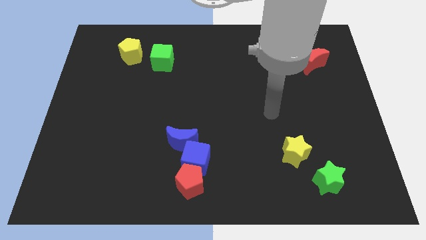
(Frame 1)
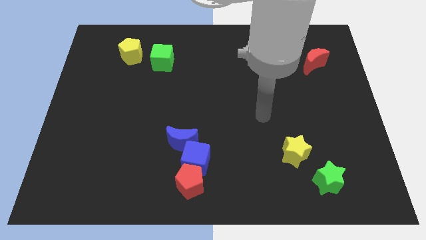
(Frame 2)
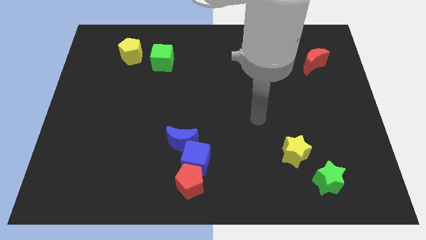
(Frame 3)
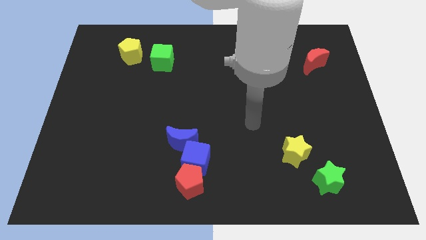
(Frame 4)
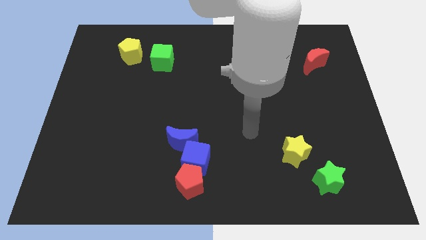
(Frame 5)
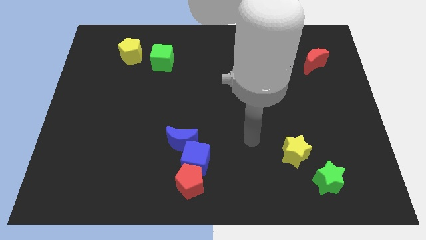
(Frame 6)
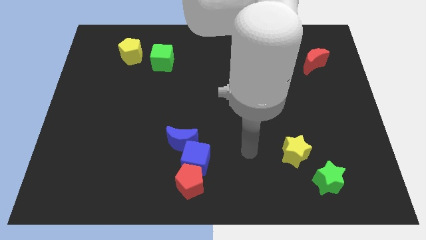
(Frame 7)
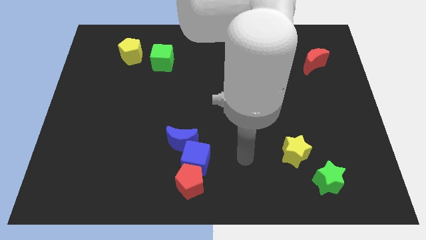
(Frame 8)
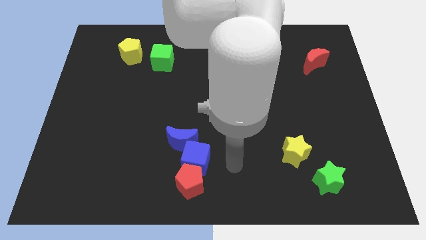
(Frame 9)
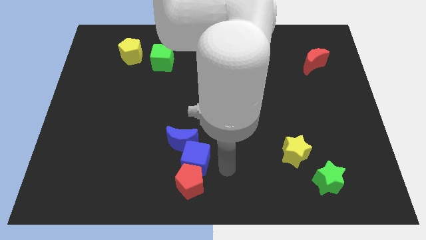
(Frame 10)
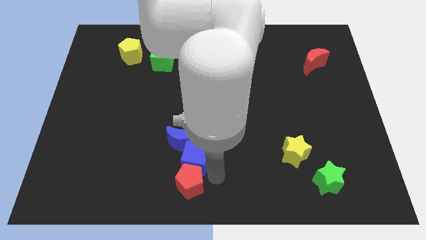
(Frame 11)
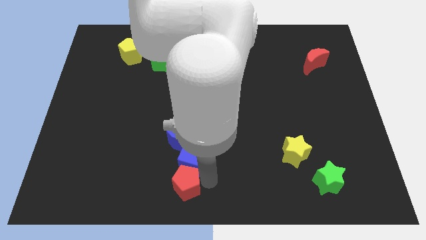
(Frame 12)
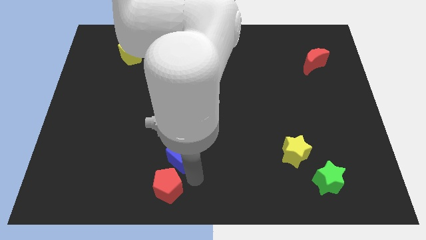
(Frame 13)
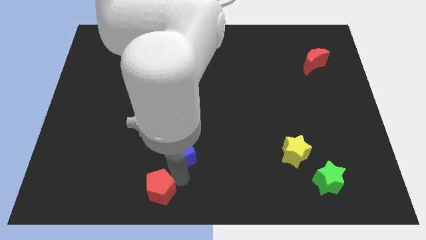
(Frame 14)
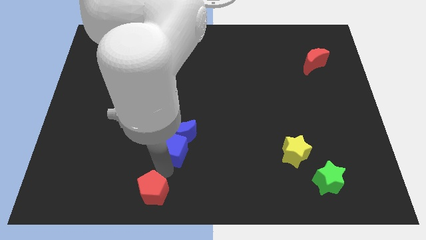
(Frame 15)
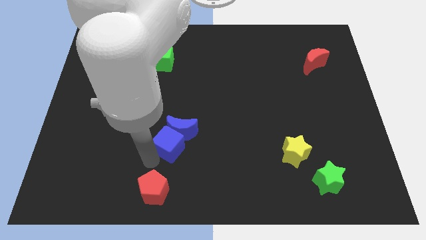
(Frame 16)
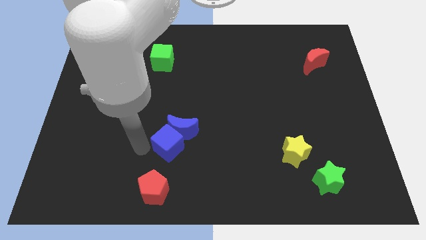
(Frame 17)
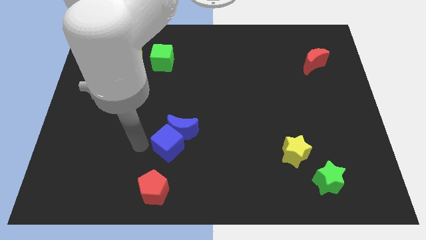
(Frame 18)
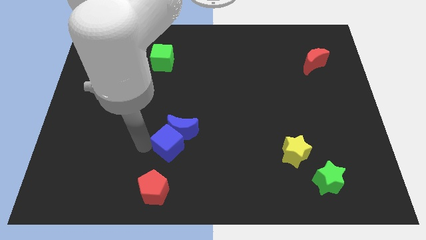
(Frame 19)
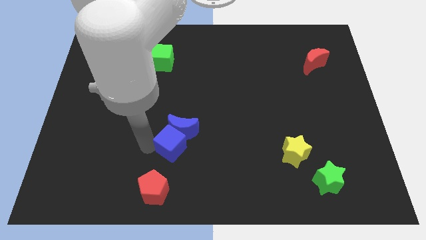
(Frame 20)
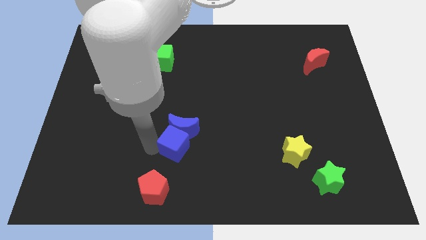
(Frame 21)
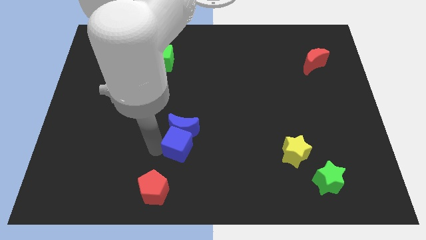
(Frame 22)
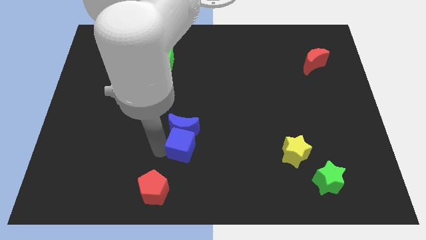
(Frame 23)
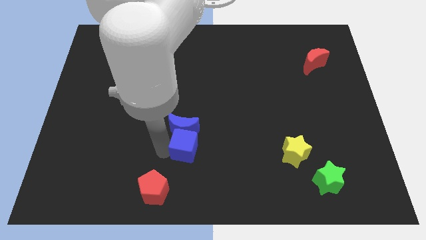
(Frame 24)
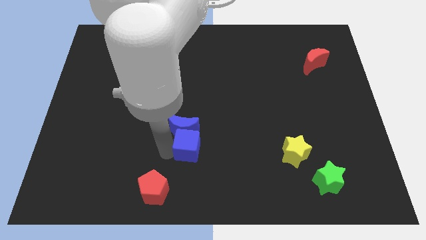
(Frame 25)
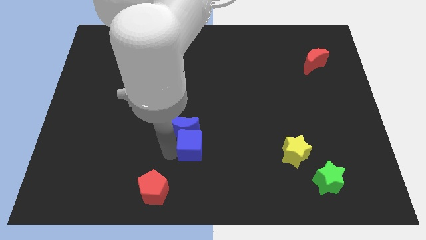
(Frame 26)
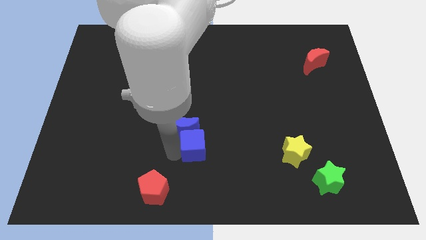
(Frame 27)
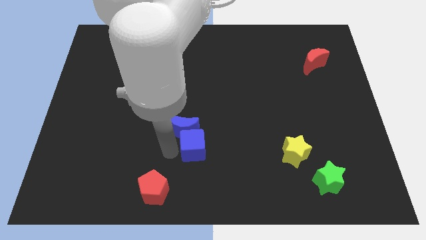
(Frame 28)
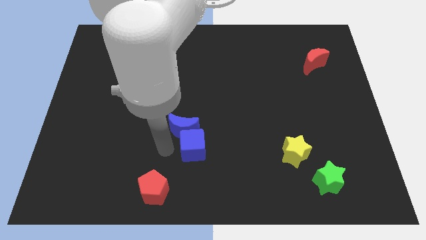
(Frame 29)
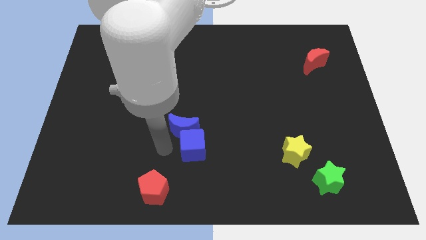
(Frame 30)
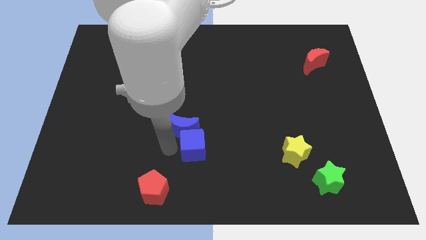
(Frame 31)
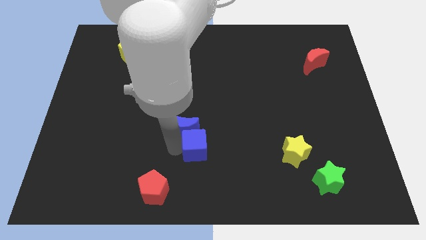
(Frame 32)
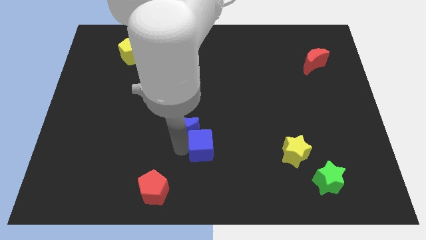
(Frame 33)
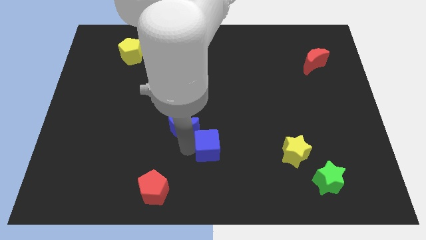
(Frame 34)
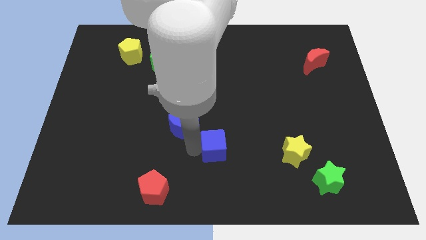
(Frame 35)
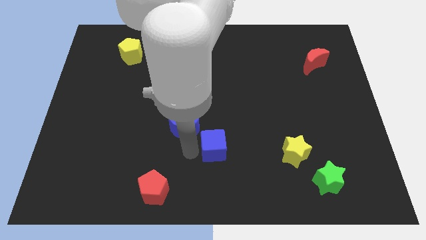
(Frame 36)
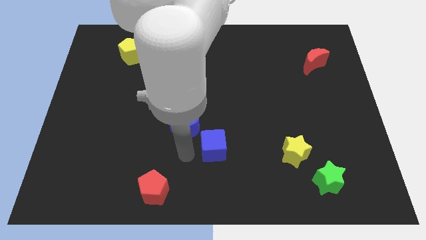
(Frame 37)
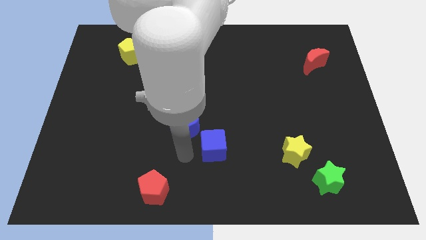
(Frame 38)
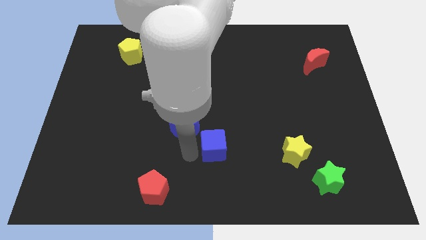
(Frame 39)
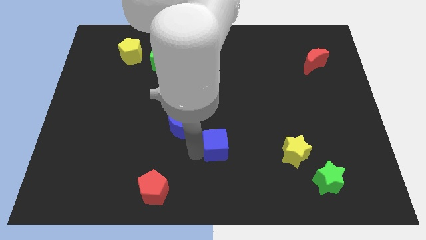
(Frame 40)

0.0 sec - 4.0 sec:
separate the blue cube from the red pentagon and blue moon

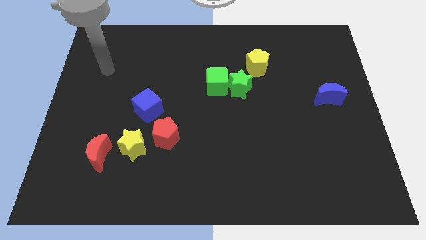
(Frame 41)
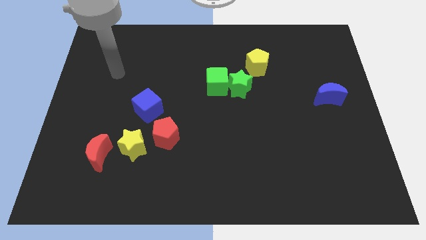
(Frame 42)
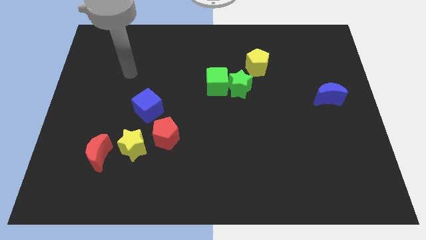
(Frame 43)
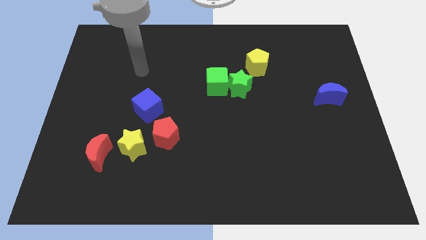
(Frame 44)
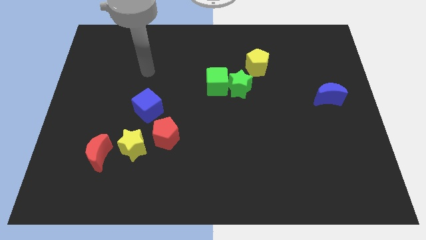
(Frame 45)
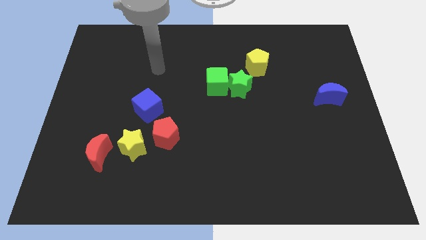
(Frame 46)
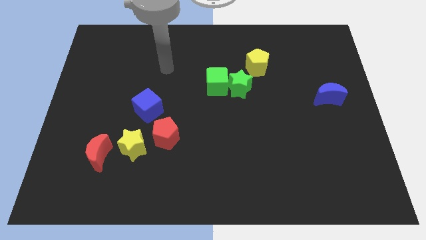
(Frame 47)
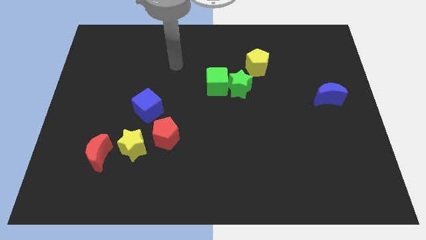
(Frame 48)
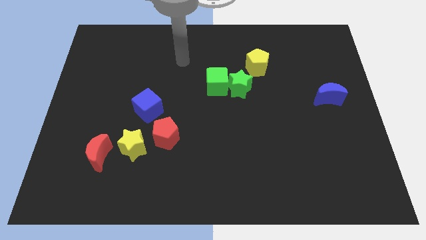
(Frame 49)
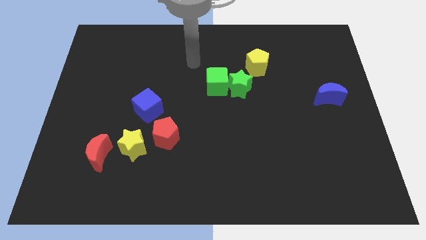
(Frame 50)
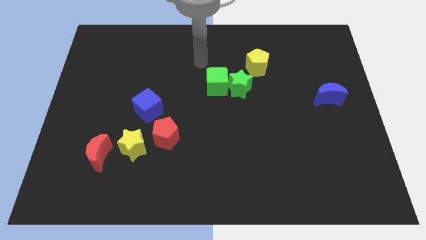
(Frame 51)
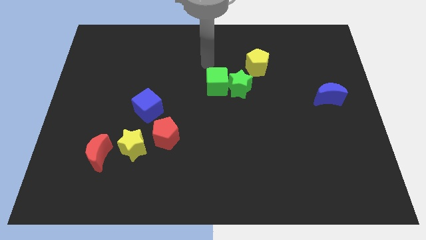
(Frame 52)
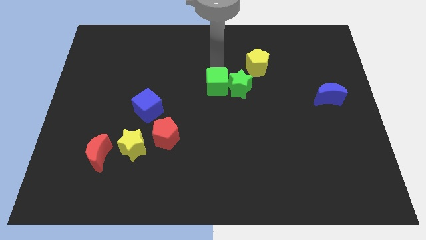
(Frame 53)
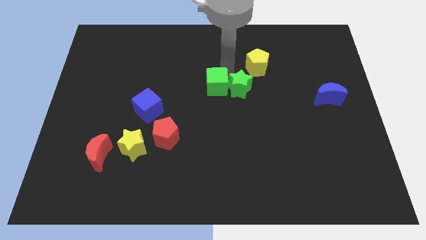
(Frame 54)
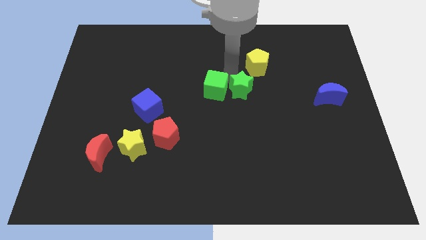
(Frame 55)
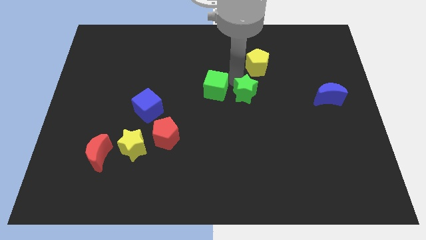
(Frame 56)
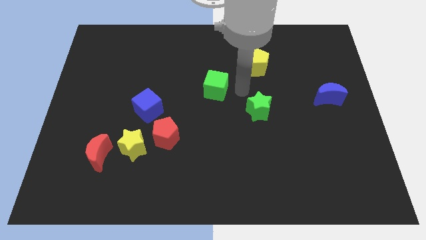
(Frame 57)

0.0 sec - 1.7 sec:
pull the green cube apart from the green star

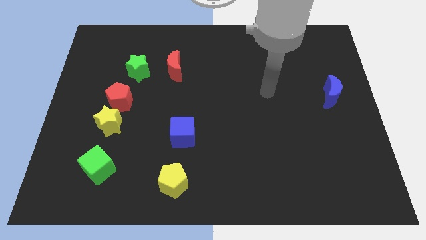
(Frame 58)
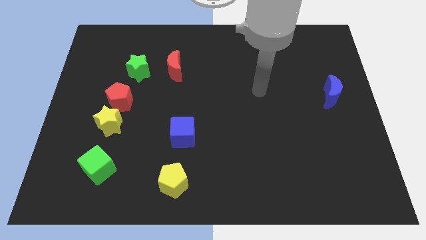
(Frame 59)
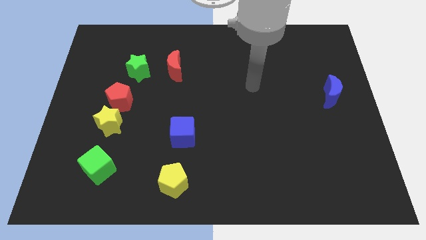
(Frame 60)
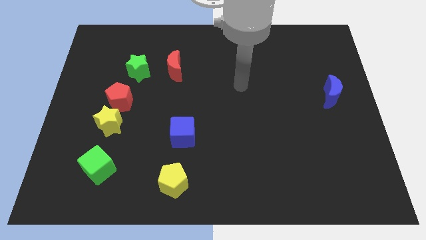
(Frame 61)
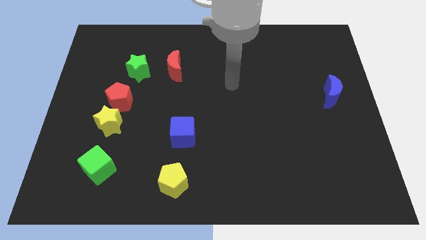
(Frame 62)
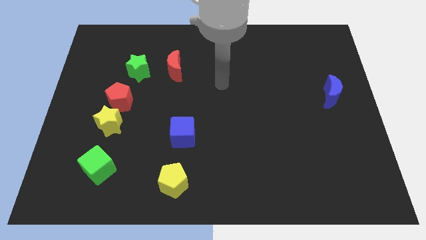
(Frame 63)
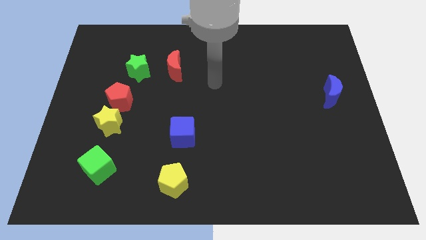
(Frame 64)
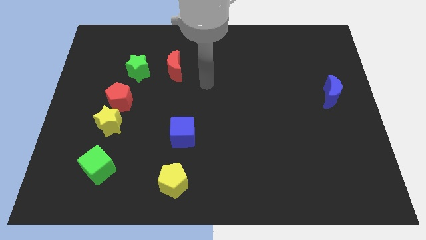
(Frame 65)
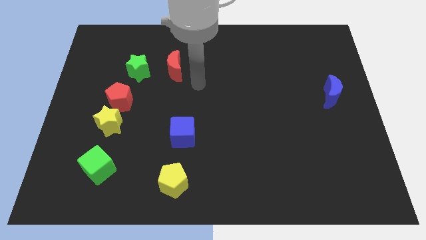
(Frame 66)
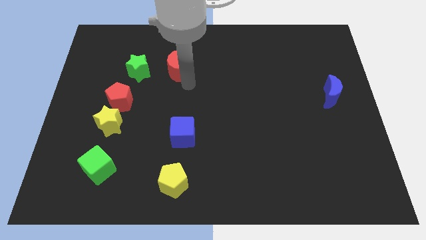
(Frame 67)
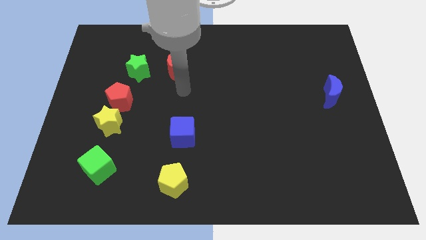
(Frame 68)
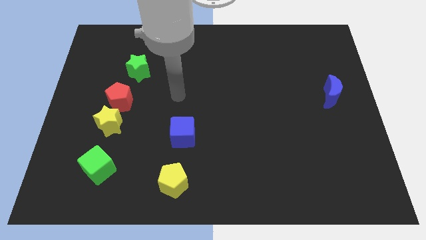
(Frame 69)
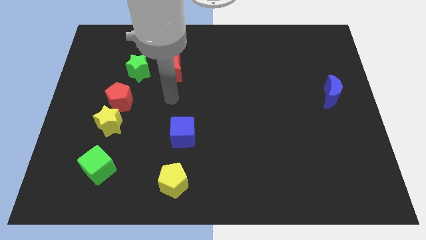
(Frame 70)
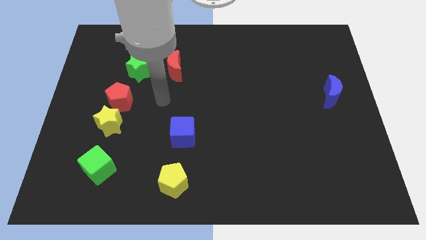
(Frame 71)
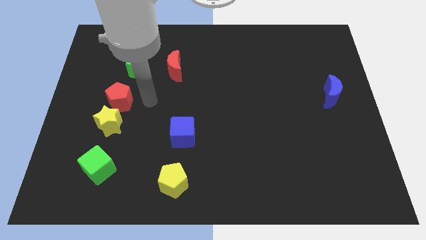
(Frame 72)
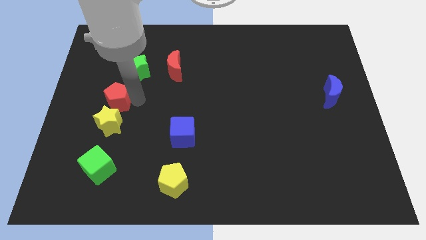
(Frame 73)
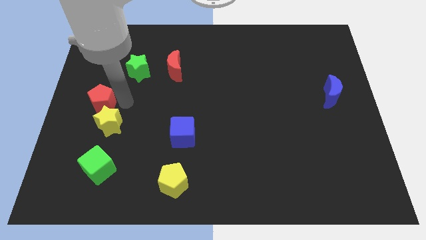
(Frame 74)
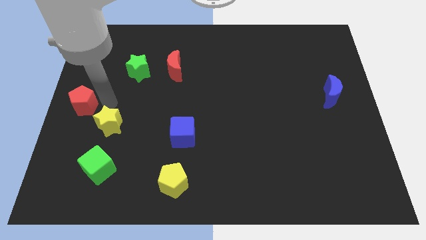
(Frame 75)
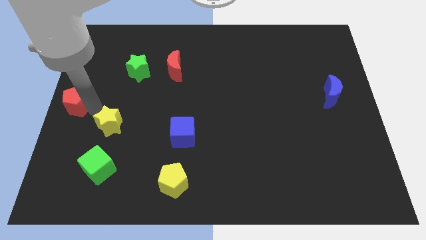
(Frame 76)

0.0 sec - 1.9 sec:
pull the yellow star apart from the red pentagon

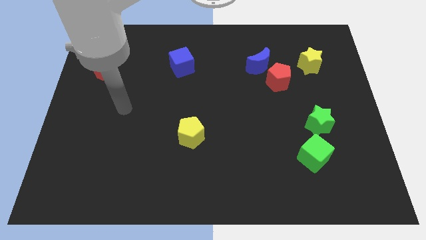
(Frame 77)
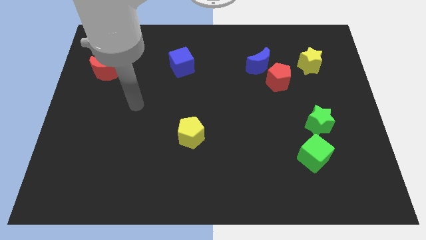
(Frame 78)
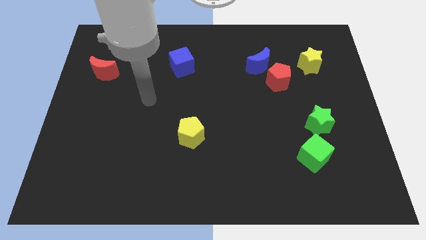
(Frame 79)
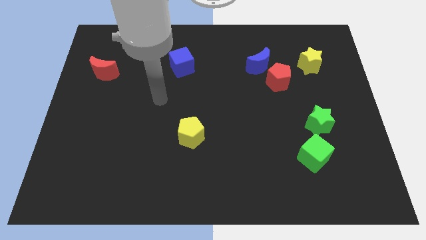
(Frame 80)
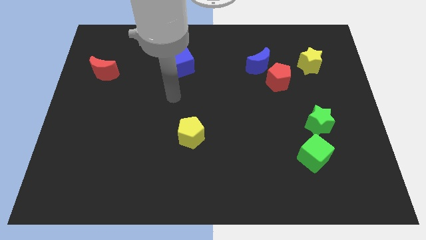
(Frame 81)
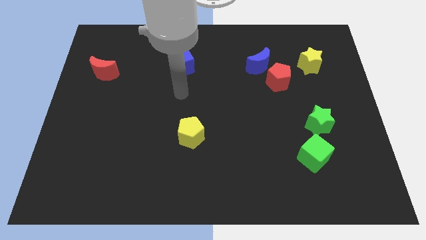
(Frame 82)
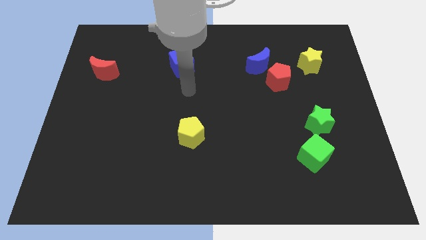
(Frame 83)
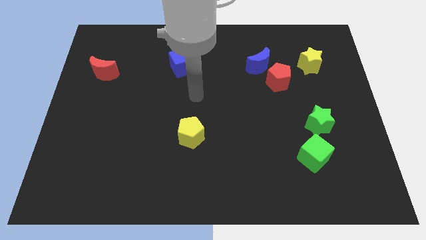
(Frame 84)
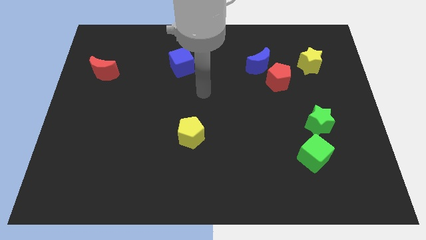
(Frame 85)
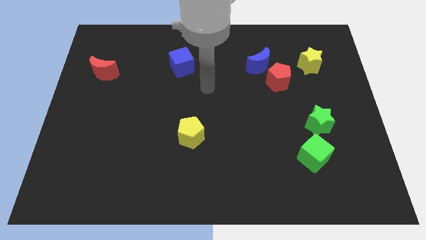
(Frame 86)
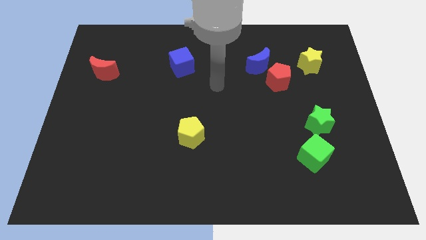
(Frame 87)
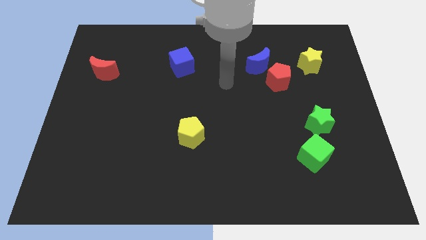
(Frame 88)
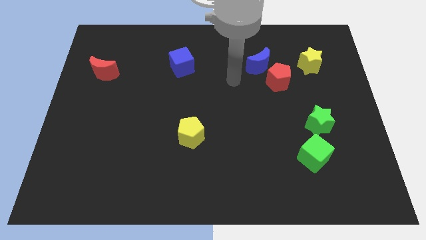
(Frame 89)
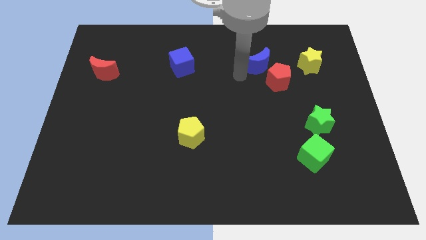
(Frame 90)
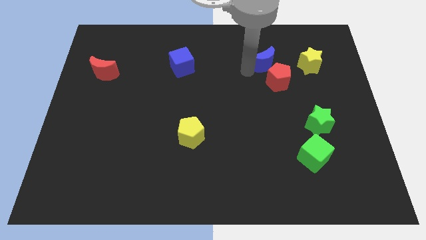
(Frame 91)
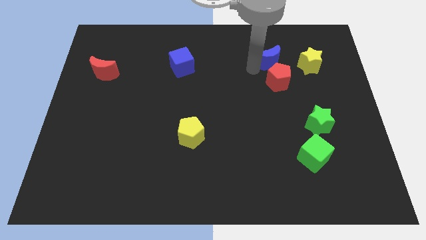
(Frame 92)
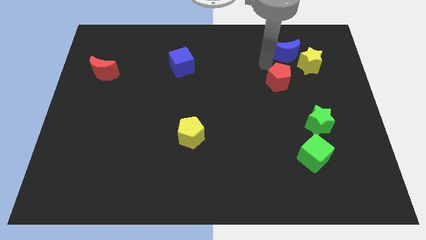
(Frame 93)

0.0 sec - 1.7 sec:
separate the red pentagon from the blue moon
